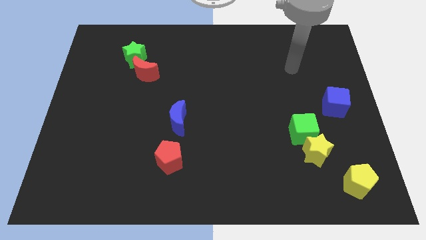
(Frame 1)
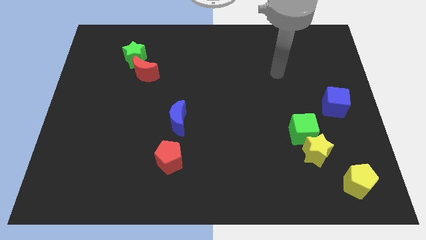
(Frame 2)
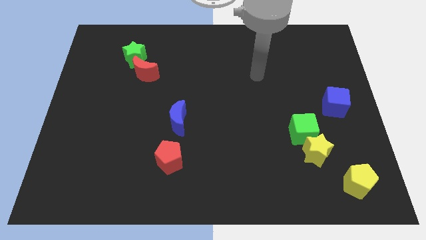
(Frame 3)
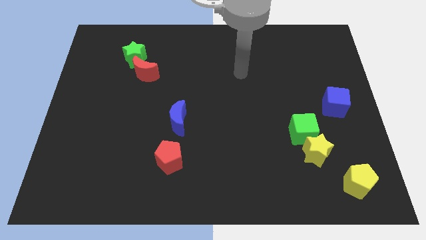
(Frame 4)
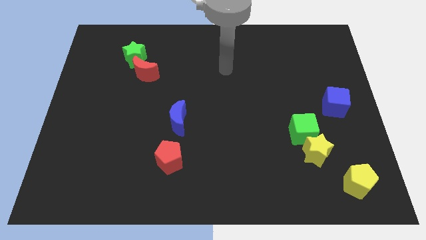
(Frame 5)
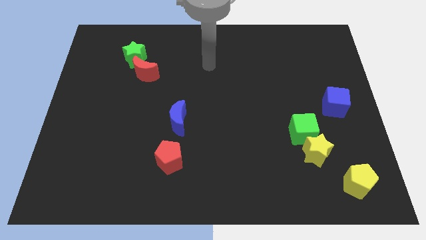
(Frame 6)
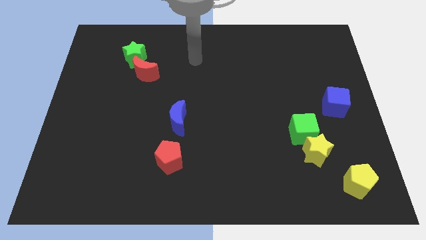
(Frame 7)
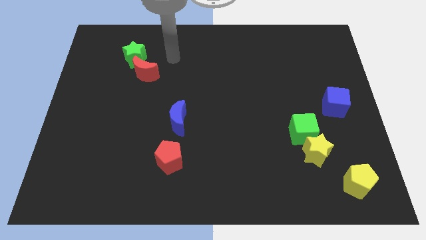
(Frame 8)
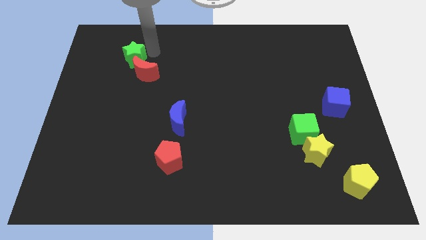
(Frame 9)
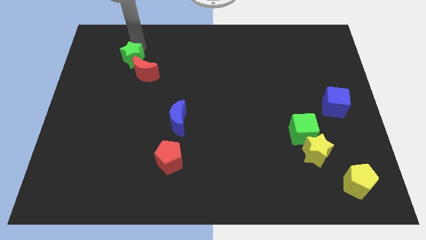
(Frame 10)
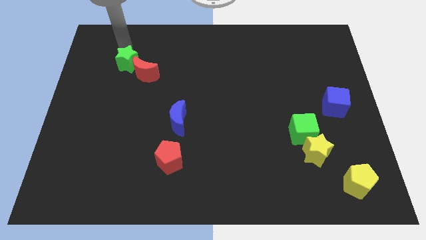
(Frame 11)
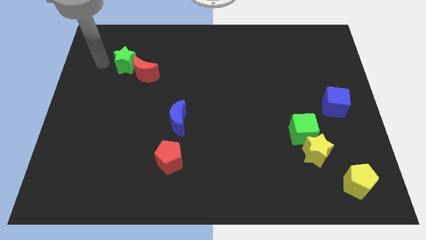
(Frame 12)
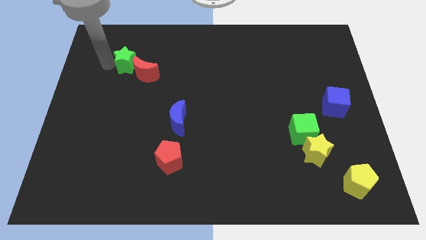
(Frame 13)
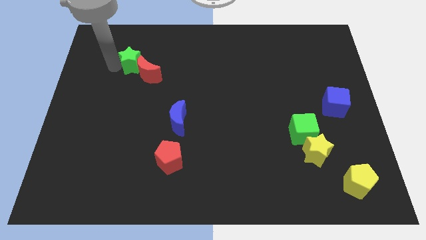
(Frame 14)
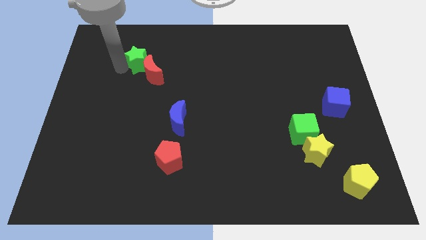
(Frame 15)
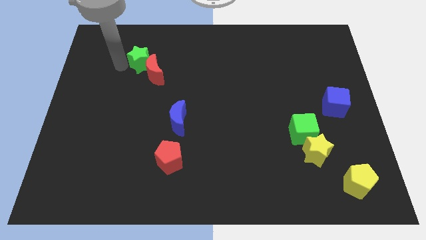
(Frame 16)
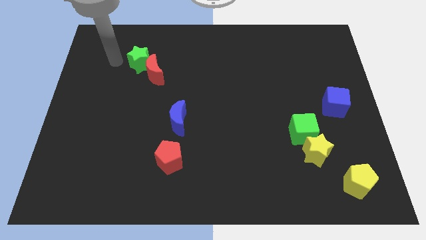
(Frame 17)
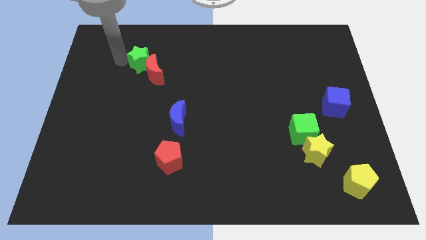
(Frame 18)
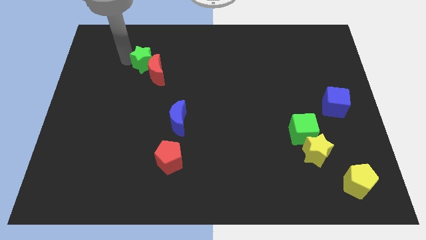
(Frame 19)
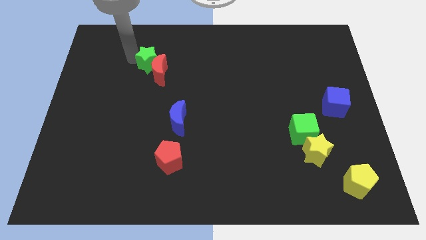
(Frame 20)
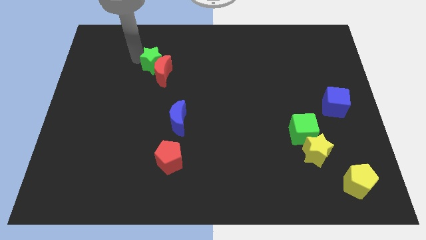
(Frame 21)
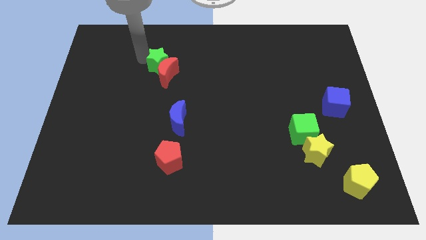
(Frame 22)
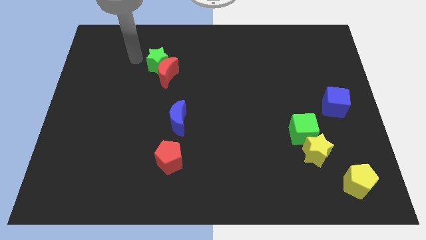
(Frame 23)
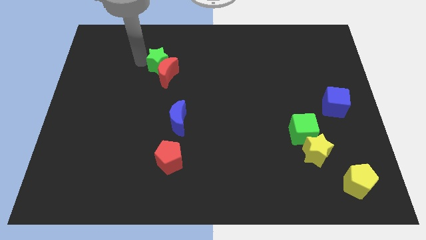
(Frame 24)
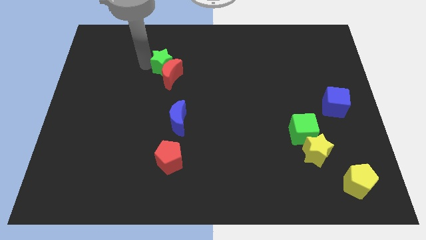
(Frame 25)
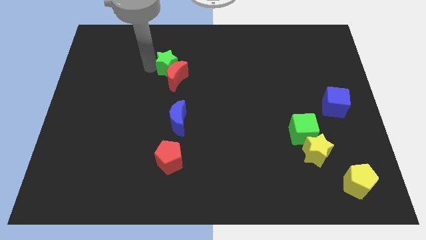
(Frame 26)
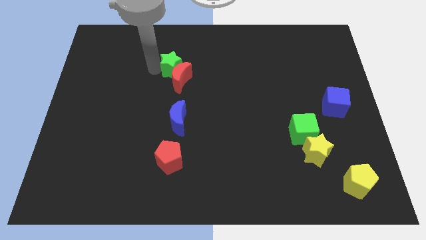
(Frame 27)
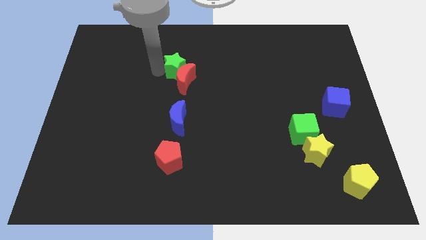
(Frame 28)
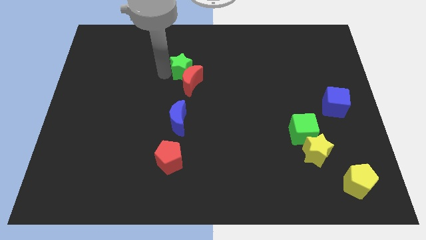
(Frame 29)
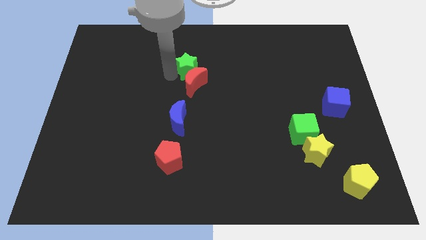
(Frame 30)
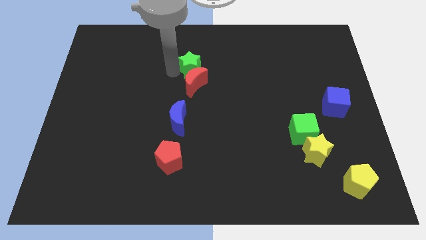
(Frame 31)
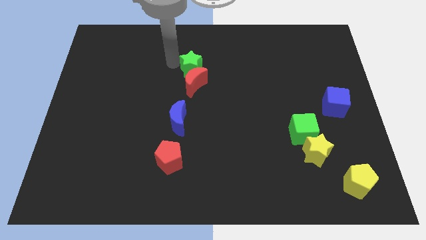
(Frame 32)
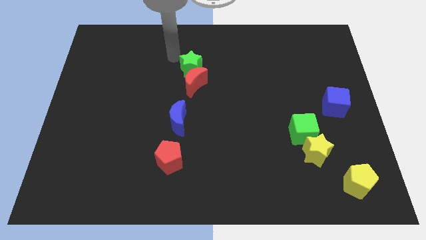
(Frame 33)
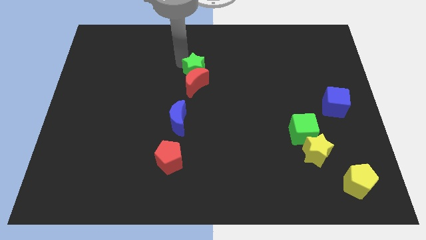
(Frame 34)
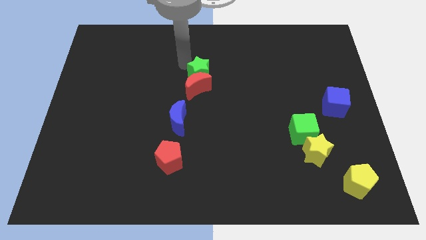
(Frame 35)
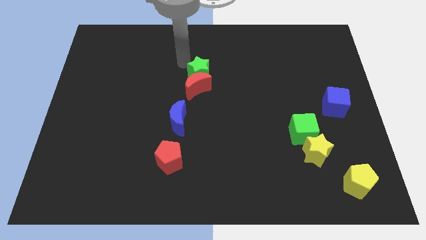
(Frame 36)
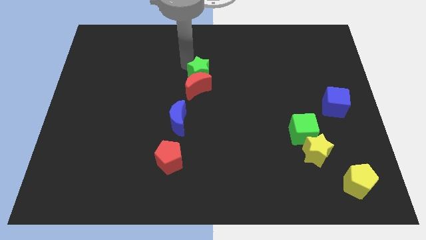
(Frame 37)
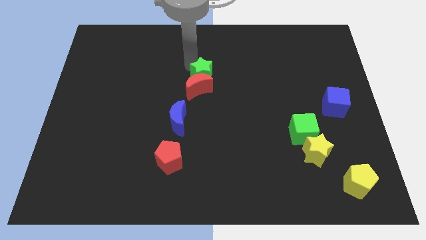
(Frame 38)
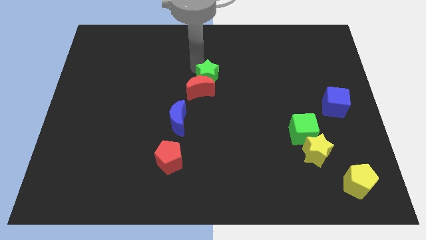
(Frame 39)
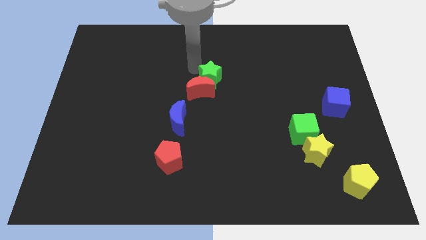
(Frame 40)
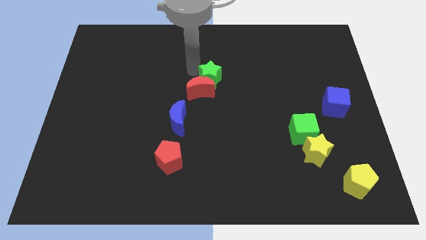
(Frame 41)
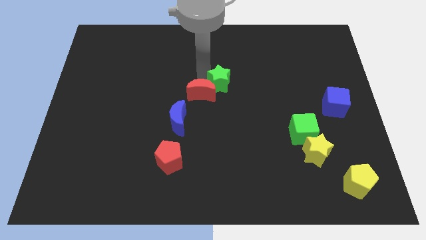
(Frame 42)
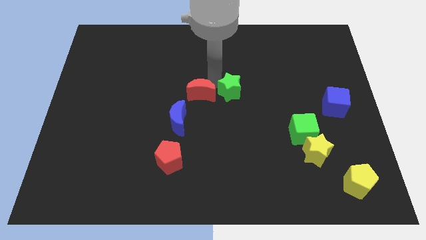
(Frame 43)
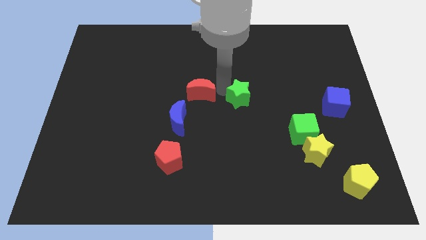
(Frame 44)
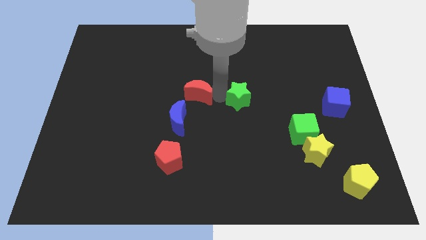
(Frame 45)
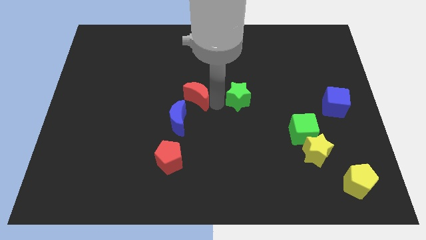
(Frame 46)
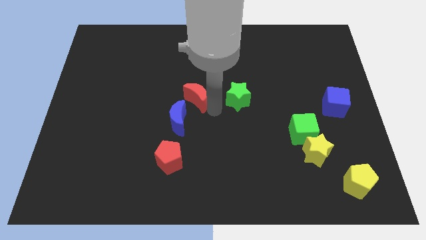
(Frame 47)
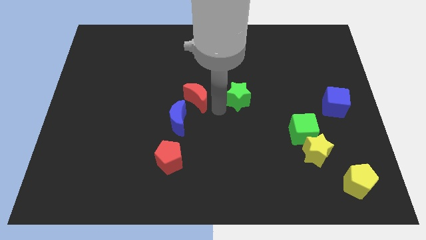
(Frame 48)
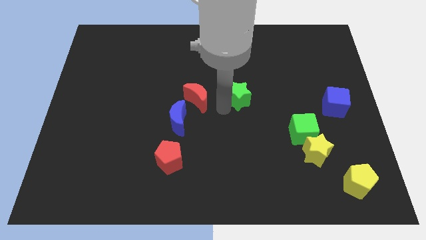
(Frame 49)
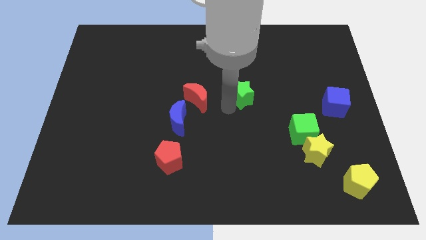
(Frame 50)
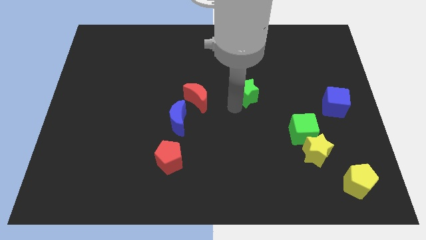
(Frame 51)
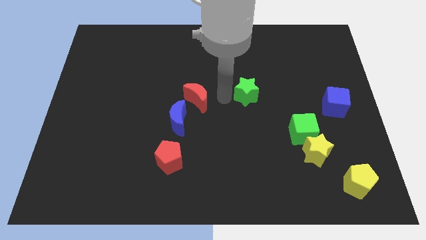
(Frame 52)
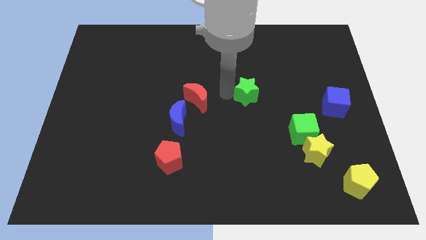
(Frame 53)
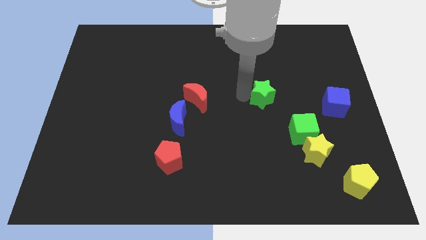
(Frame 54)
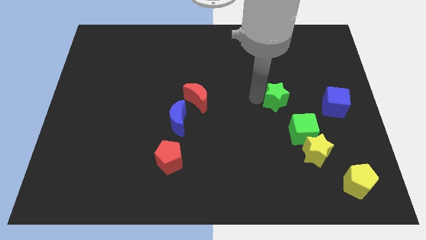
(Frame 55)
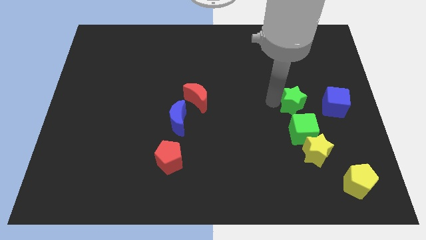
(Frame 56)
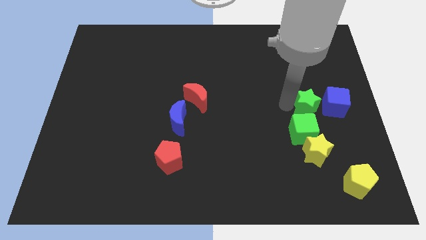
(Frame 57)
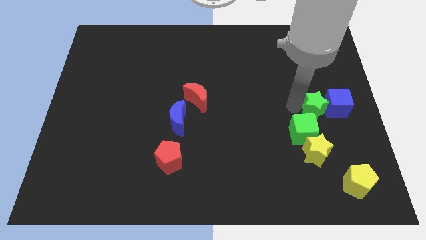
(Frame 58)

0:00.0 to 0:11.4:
put the green star close to the blue cube
